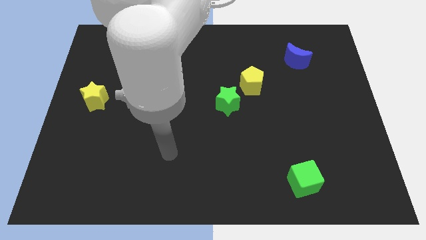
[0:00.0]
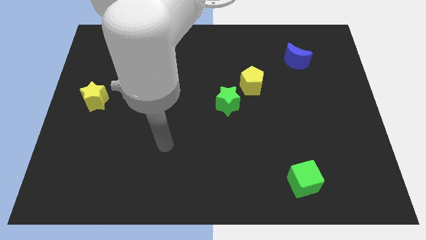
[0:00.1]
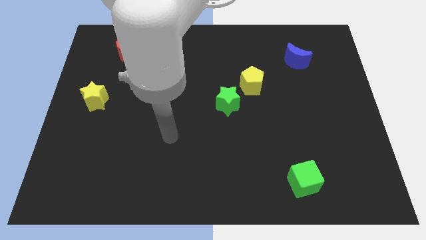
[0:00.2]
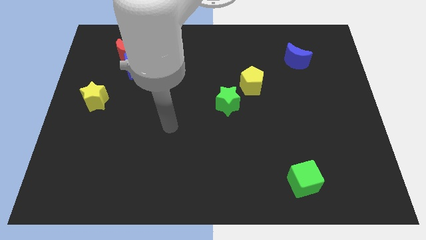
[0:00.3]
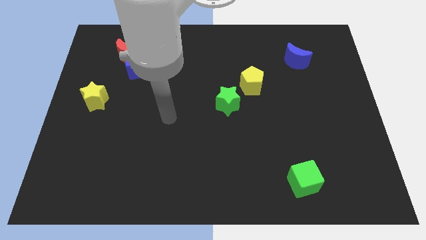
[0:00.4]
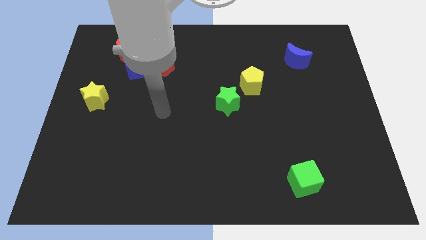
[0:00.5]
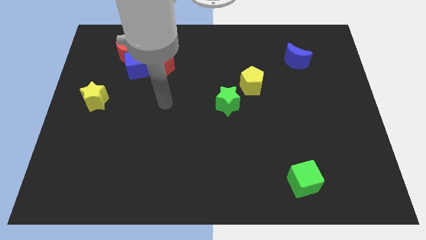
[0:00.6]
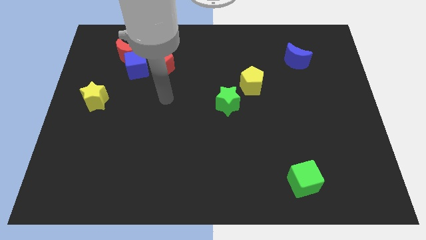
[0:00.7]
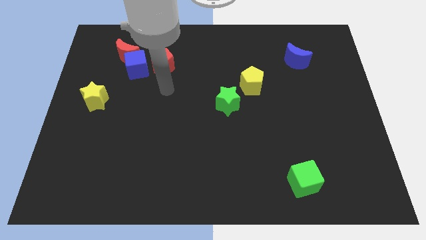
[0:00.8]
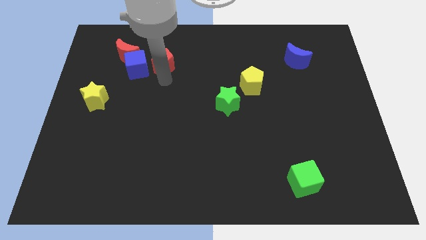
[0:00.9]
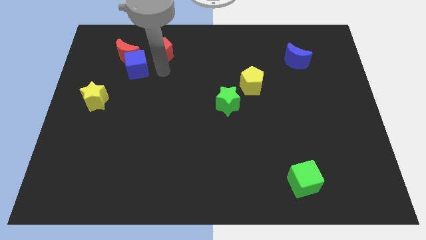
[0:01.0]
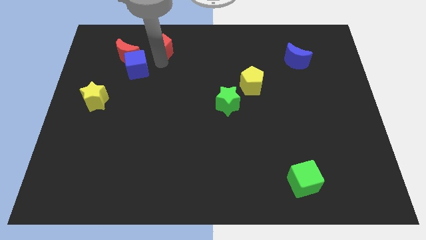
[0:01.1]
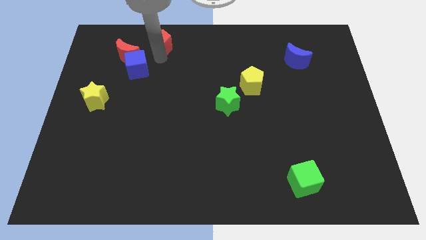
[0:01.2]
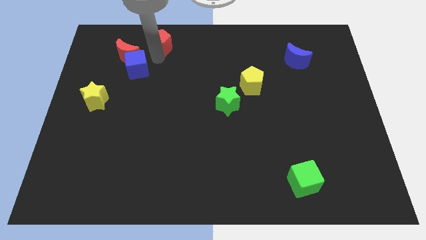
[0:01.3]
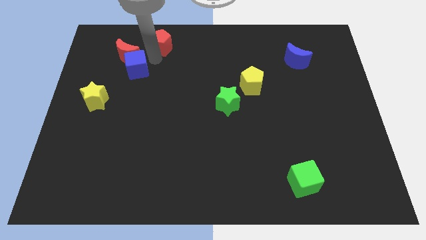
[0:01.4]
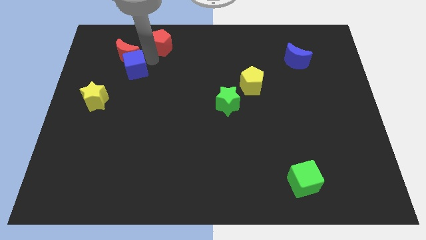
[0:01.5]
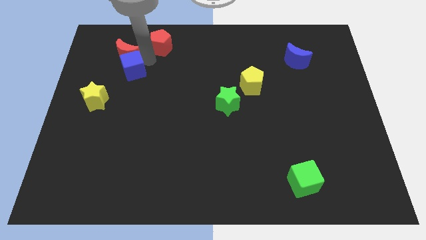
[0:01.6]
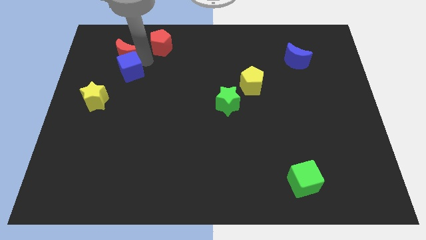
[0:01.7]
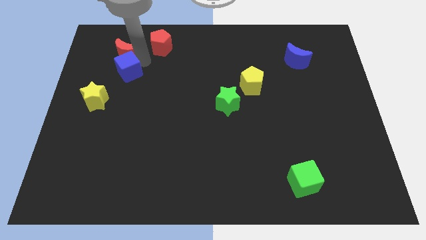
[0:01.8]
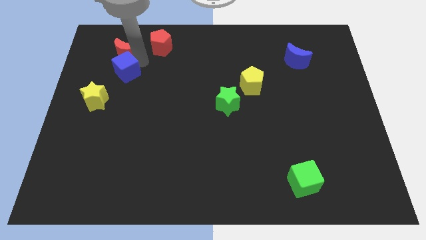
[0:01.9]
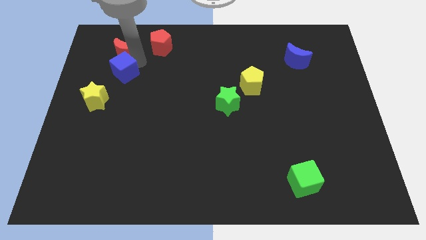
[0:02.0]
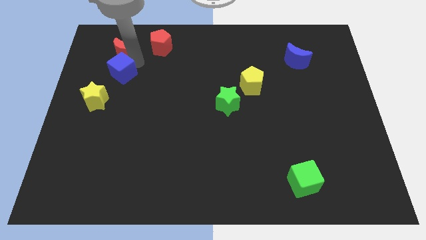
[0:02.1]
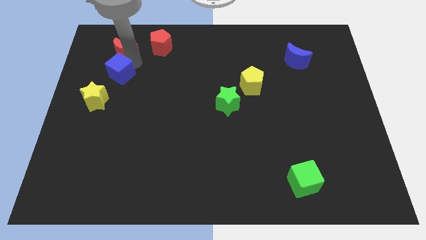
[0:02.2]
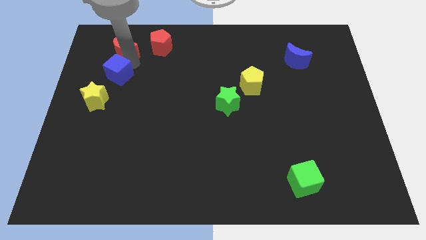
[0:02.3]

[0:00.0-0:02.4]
move the blue cube away from the red moon and red pentagon

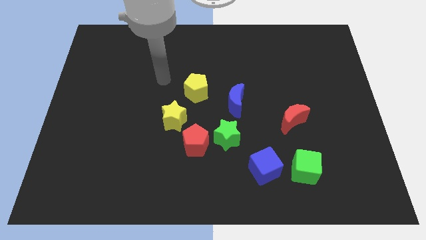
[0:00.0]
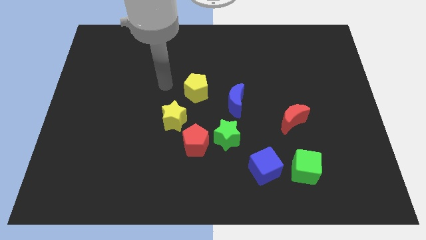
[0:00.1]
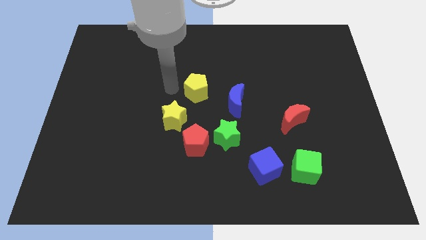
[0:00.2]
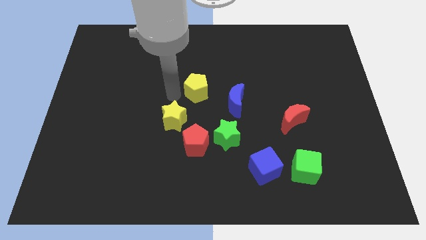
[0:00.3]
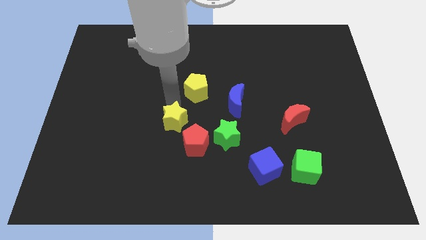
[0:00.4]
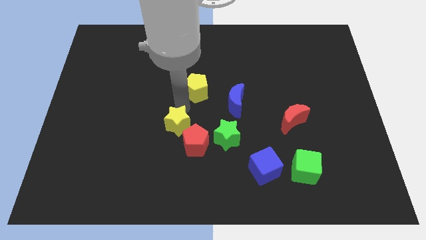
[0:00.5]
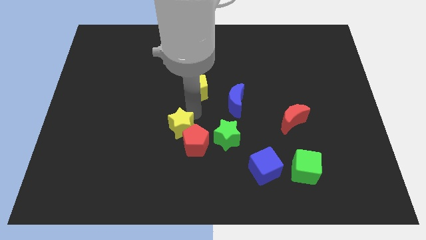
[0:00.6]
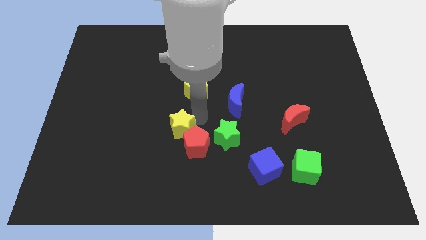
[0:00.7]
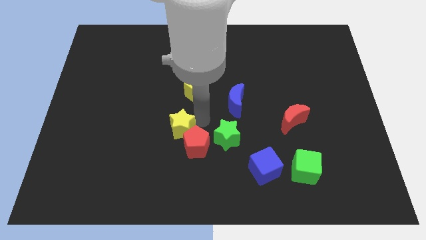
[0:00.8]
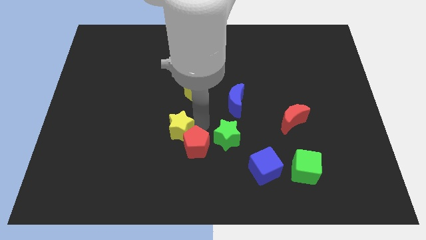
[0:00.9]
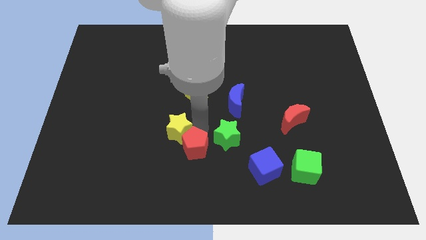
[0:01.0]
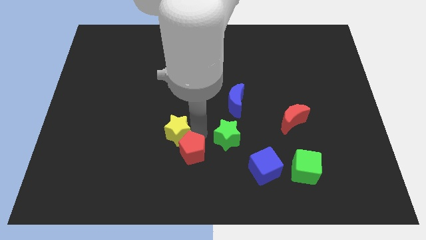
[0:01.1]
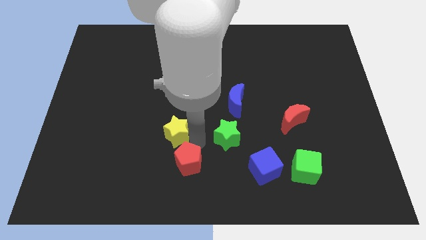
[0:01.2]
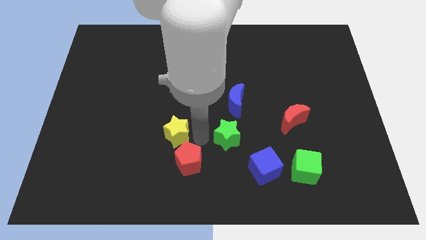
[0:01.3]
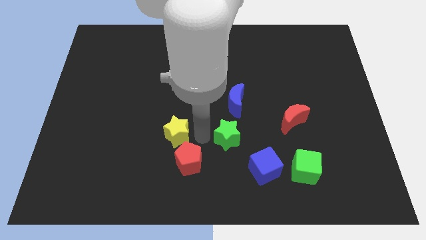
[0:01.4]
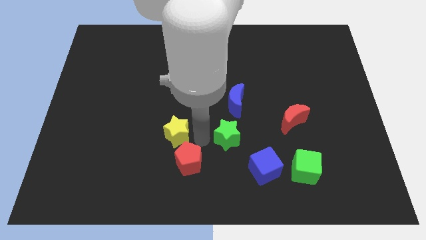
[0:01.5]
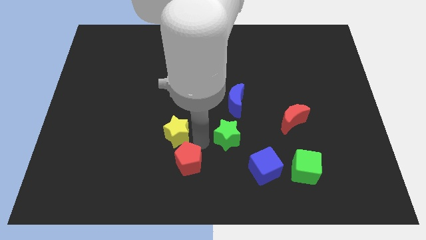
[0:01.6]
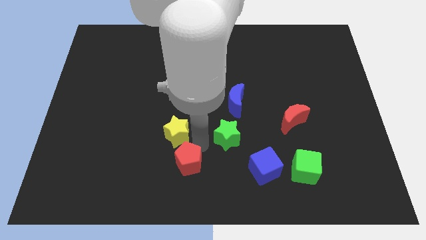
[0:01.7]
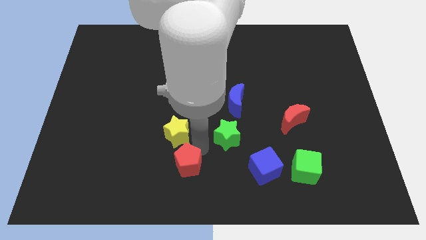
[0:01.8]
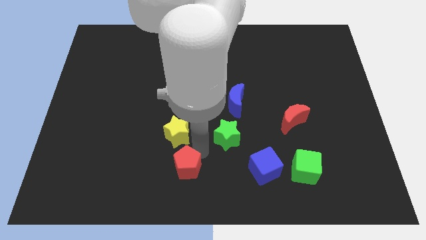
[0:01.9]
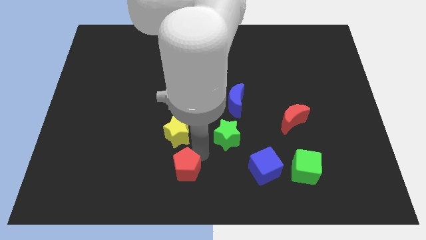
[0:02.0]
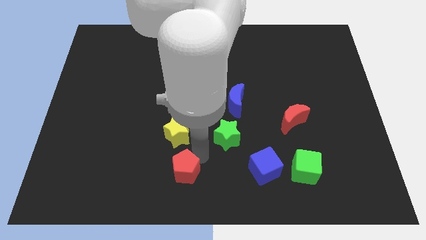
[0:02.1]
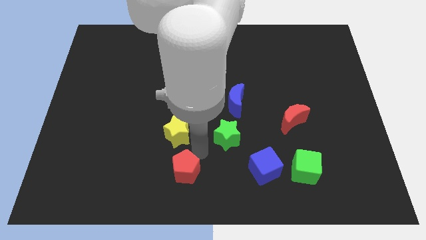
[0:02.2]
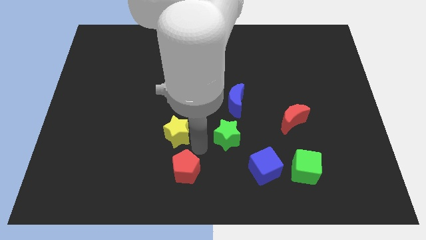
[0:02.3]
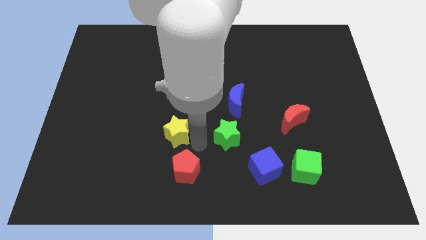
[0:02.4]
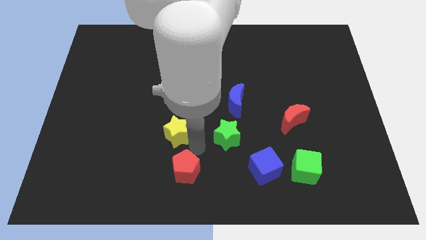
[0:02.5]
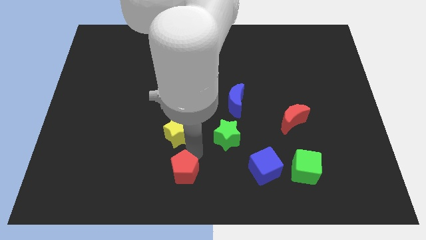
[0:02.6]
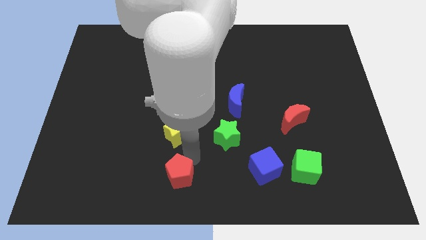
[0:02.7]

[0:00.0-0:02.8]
separate the red pentagon from the green star and yellow star

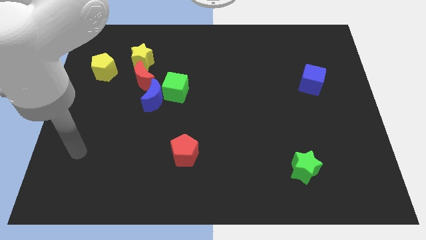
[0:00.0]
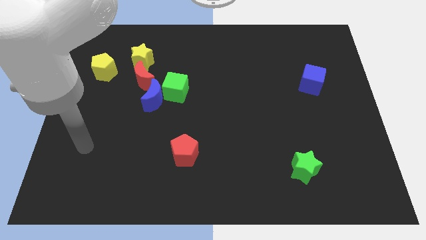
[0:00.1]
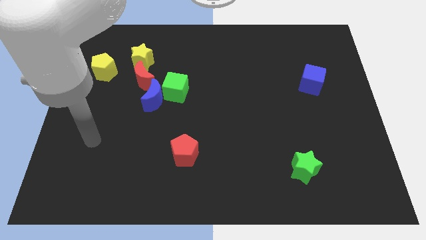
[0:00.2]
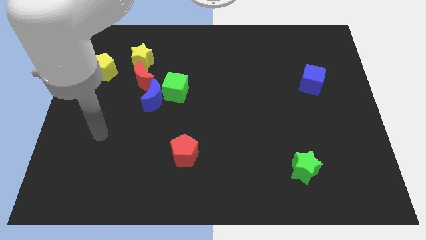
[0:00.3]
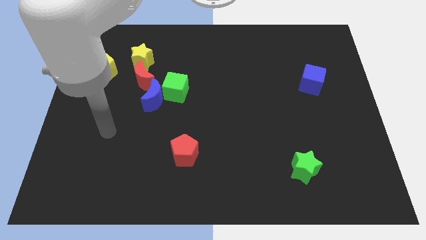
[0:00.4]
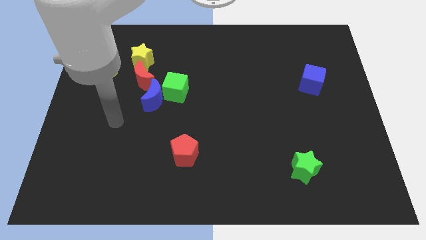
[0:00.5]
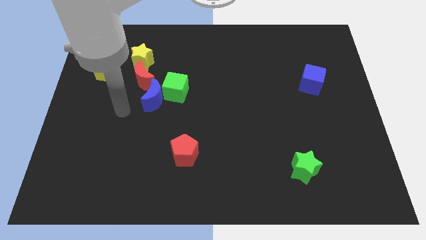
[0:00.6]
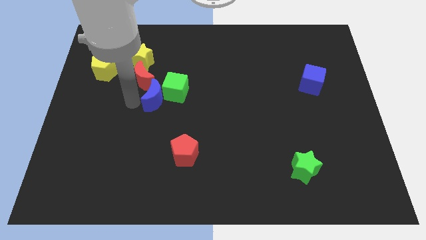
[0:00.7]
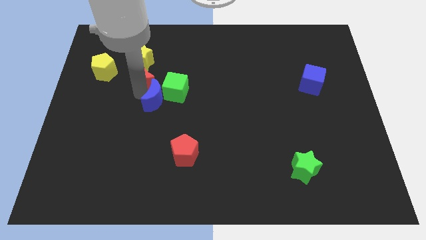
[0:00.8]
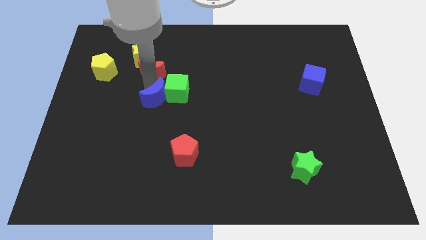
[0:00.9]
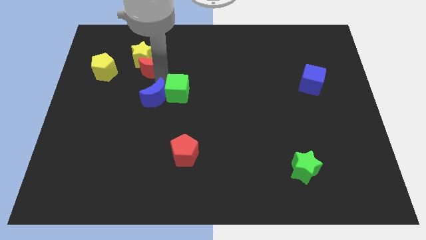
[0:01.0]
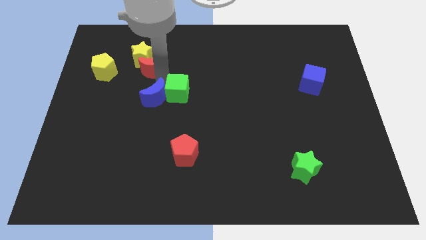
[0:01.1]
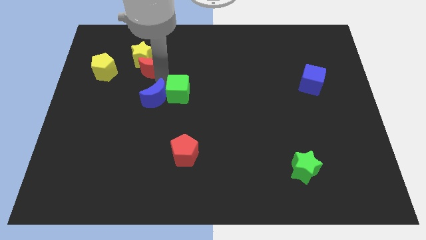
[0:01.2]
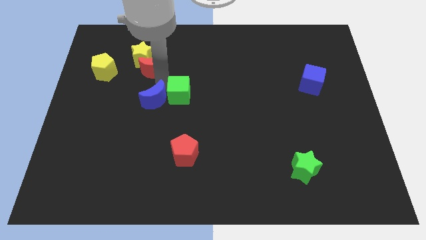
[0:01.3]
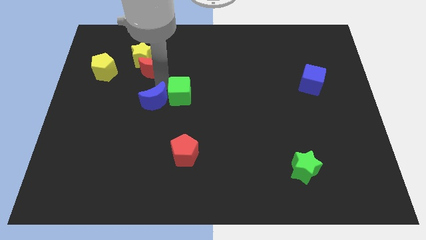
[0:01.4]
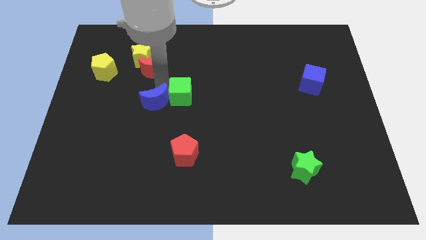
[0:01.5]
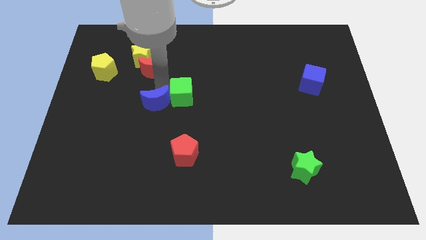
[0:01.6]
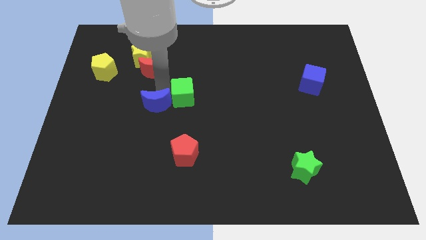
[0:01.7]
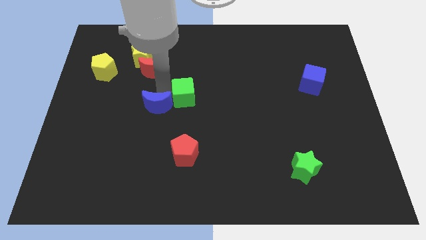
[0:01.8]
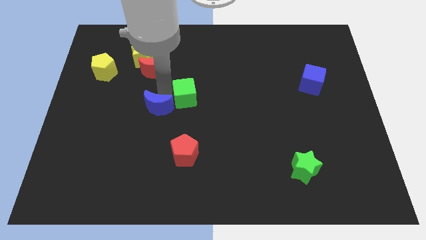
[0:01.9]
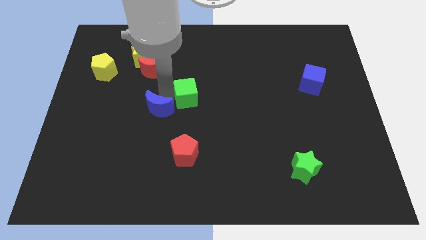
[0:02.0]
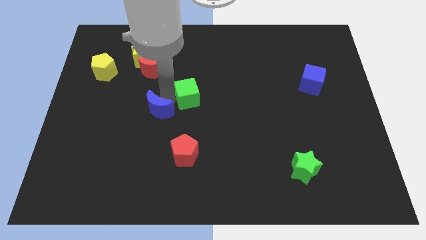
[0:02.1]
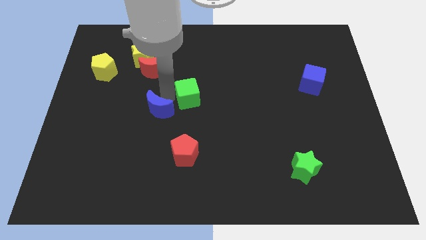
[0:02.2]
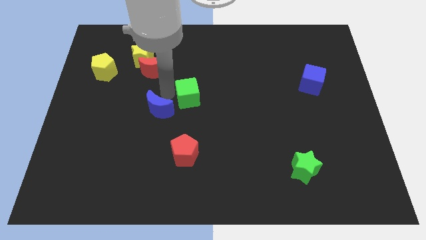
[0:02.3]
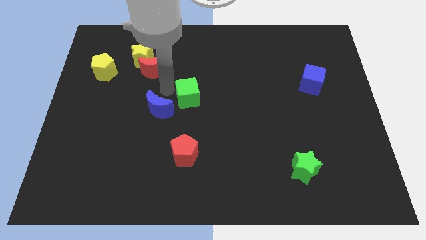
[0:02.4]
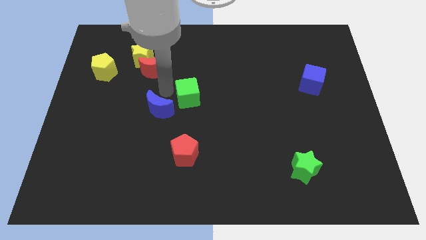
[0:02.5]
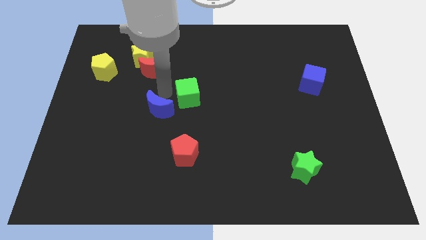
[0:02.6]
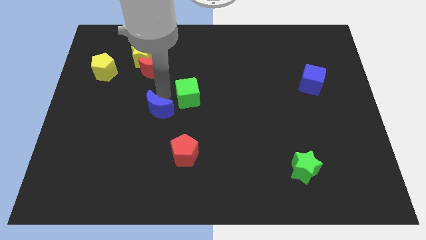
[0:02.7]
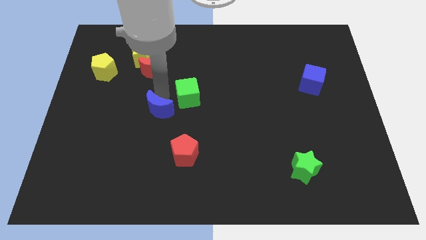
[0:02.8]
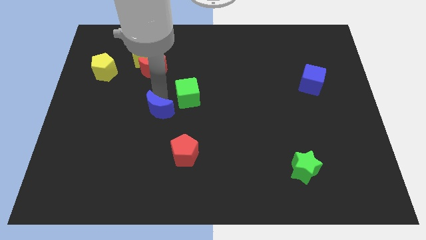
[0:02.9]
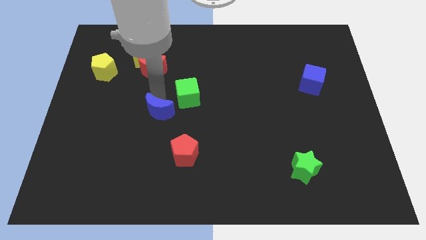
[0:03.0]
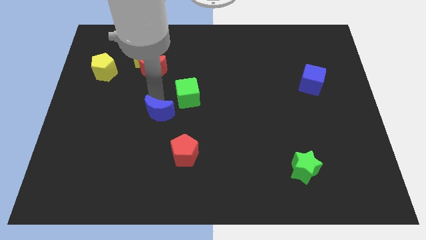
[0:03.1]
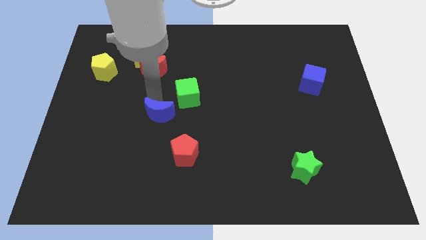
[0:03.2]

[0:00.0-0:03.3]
separate the blue moon from the green cube and red moon

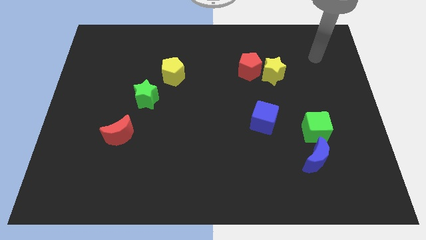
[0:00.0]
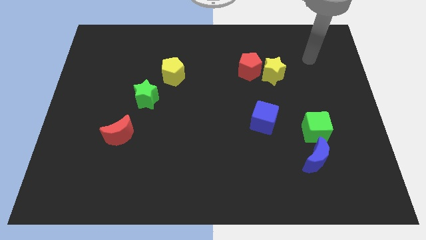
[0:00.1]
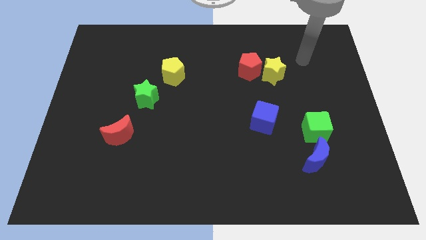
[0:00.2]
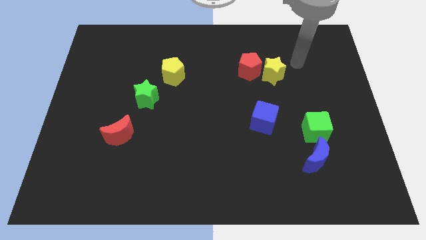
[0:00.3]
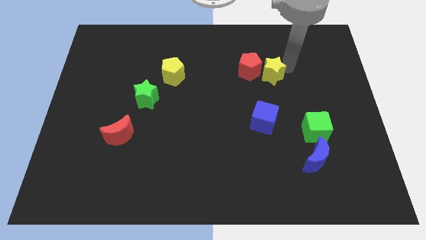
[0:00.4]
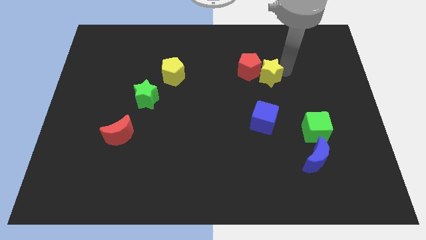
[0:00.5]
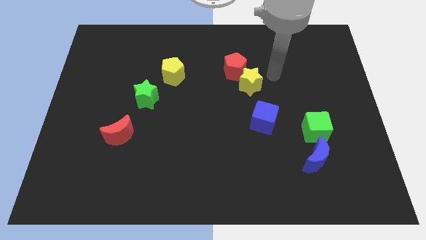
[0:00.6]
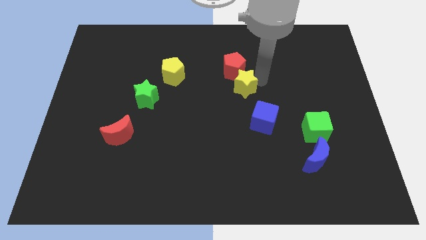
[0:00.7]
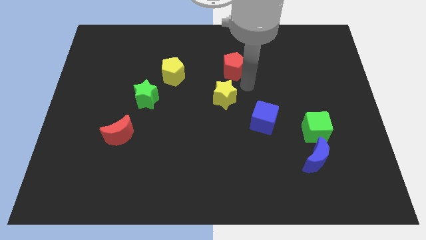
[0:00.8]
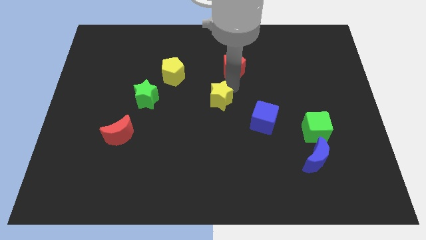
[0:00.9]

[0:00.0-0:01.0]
separate the red pentagon from the yellow star
